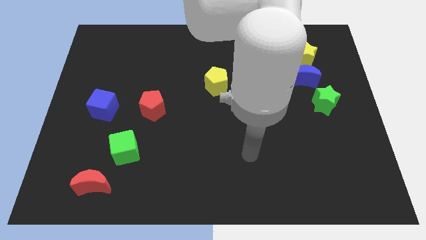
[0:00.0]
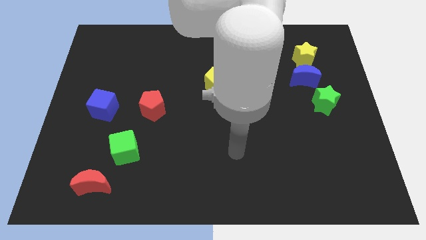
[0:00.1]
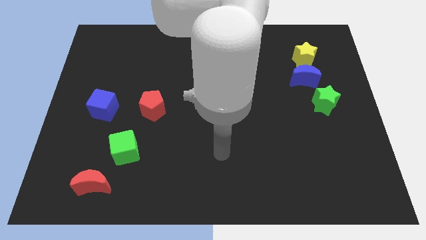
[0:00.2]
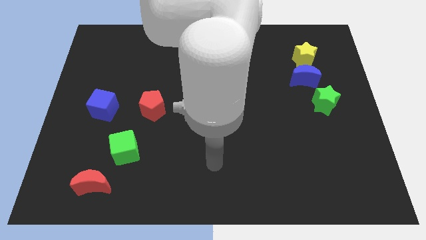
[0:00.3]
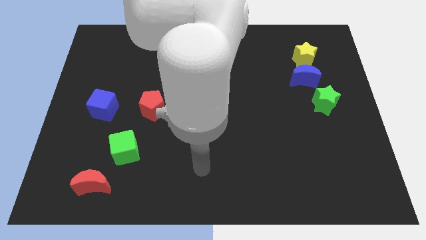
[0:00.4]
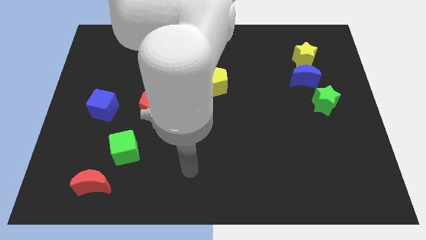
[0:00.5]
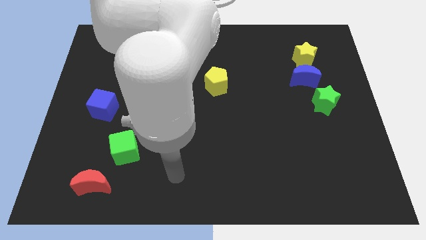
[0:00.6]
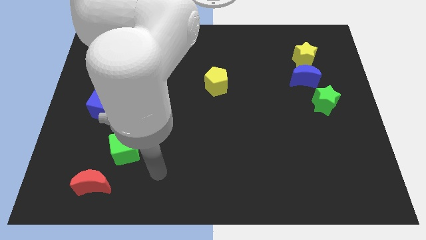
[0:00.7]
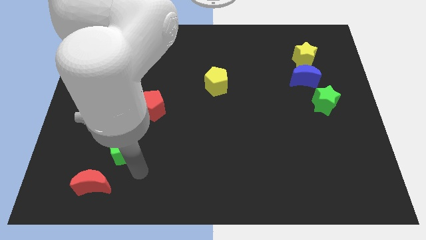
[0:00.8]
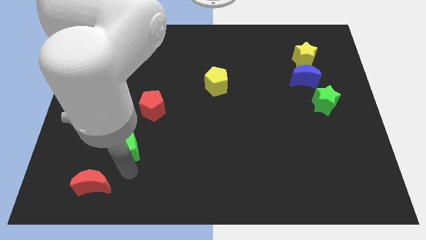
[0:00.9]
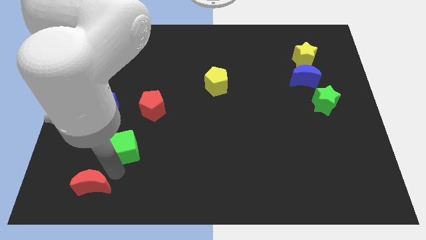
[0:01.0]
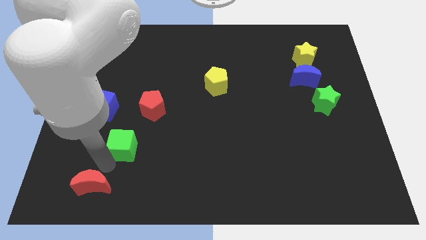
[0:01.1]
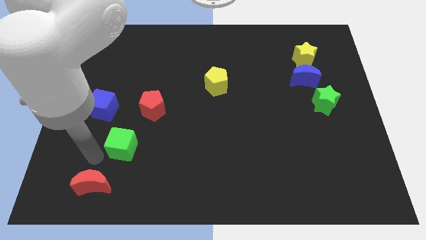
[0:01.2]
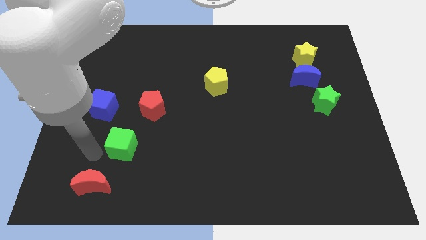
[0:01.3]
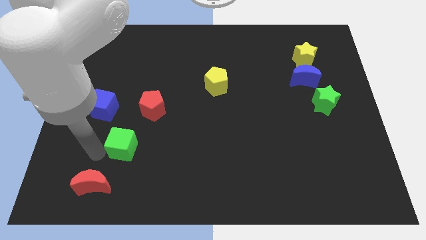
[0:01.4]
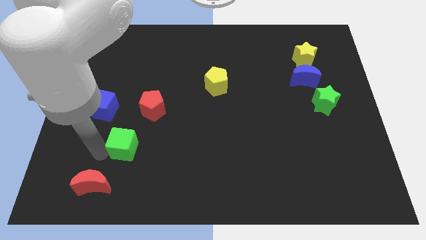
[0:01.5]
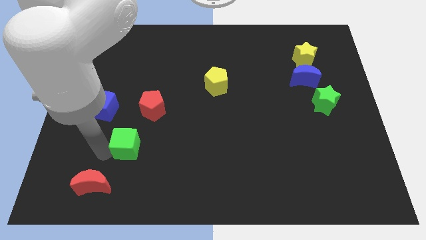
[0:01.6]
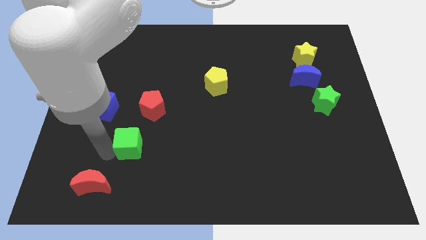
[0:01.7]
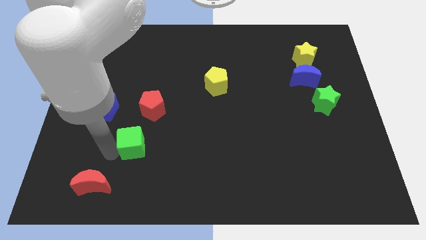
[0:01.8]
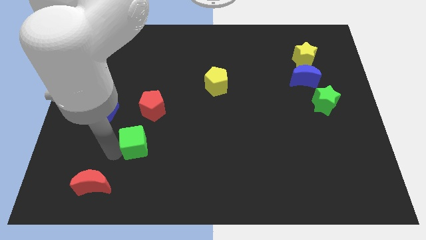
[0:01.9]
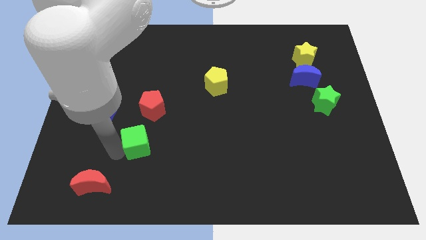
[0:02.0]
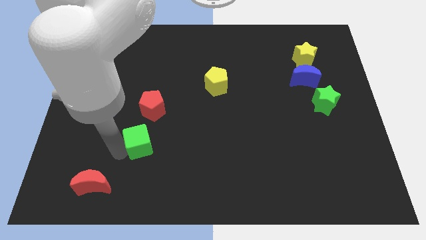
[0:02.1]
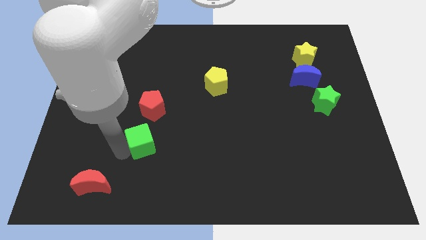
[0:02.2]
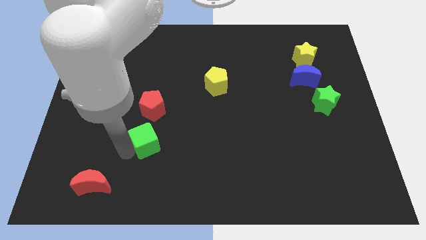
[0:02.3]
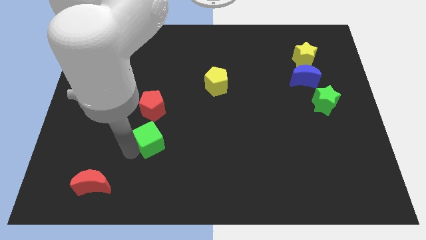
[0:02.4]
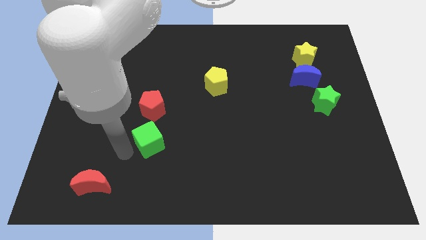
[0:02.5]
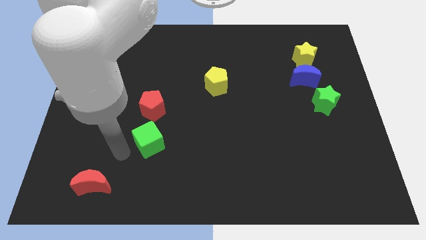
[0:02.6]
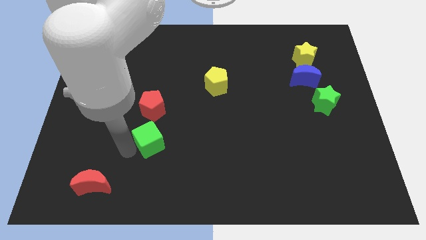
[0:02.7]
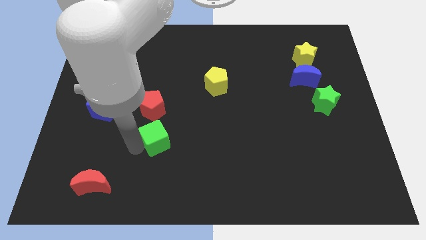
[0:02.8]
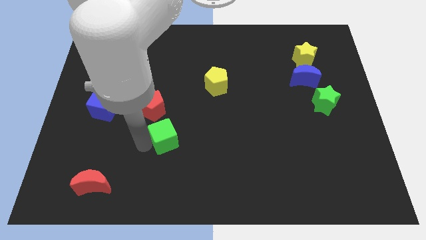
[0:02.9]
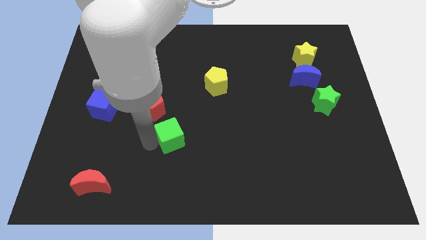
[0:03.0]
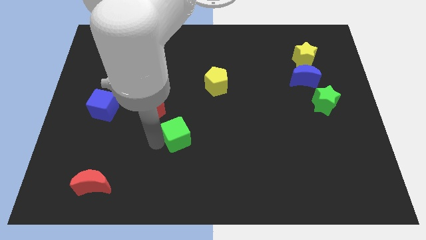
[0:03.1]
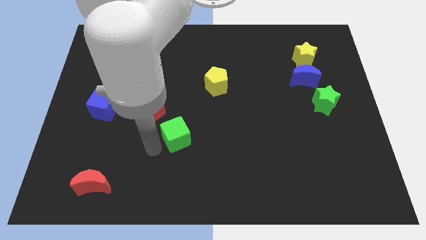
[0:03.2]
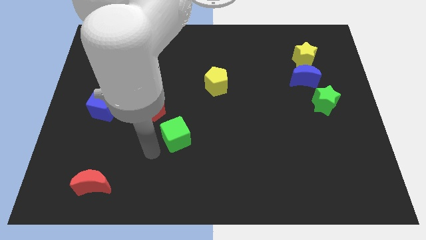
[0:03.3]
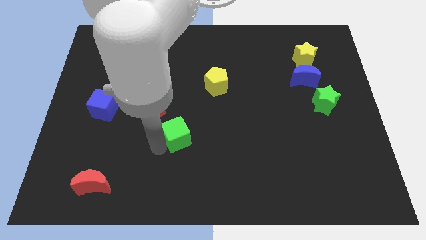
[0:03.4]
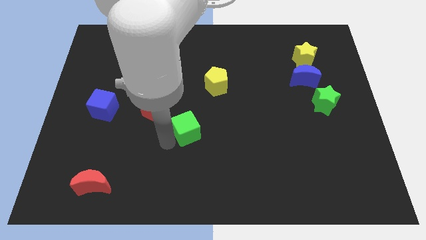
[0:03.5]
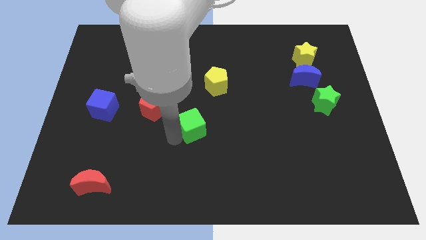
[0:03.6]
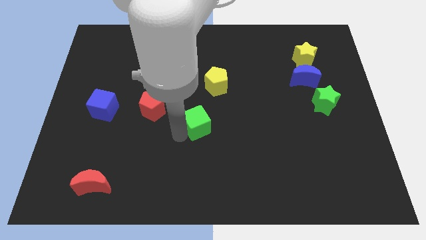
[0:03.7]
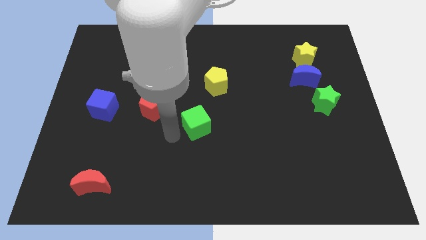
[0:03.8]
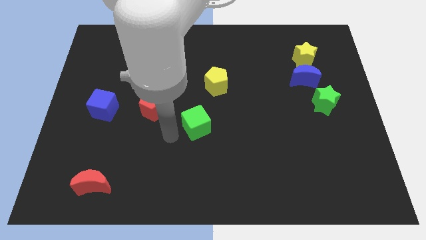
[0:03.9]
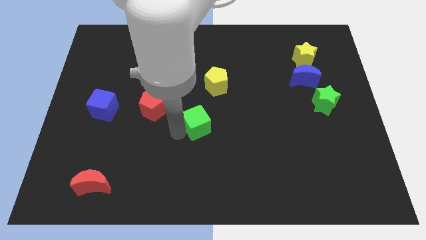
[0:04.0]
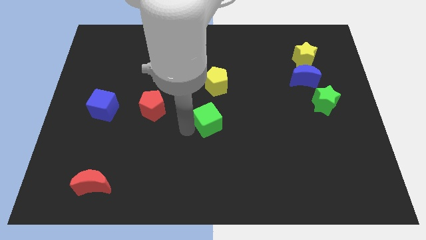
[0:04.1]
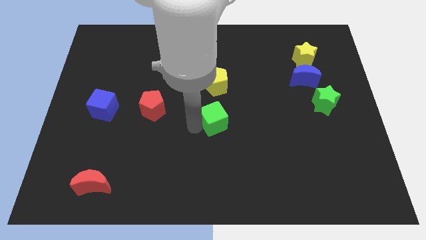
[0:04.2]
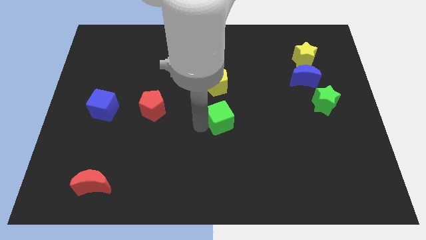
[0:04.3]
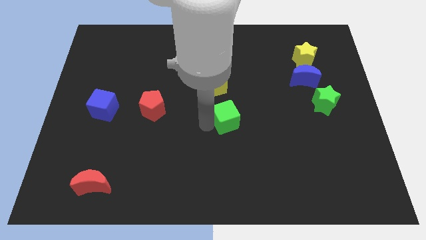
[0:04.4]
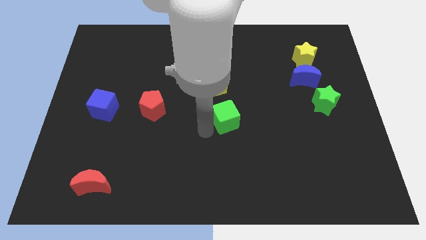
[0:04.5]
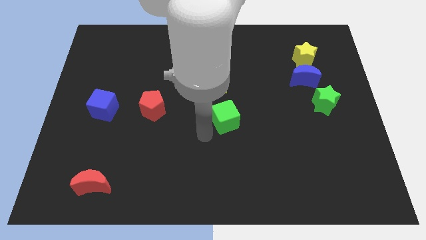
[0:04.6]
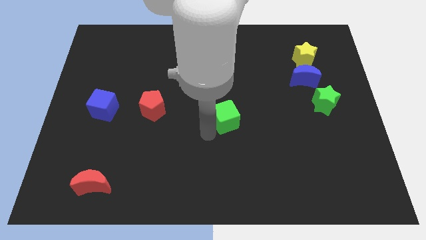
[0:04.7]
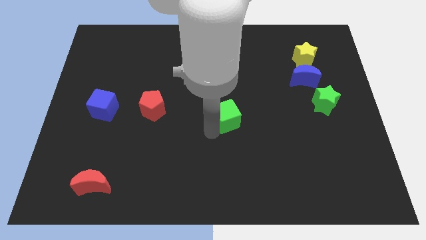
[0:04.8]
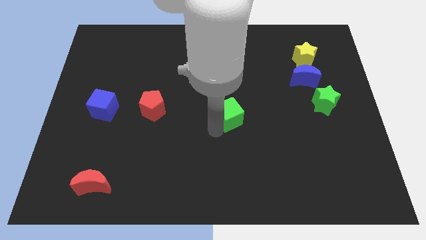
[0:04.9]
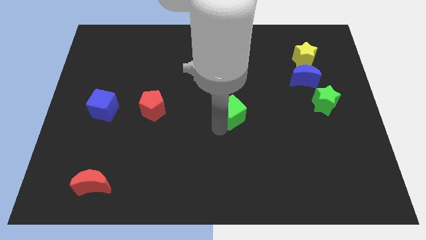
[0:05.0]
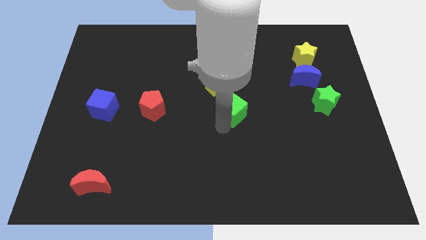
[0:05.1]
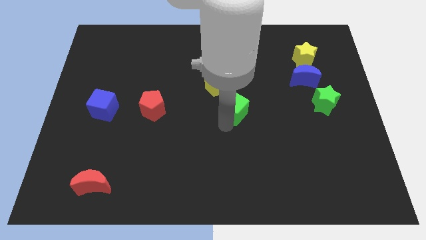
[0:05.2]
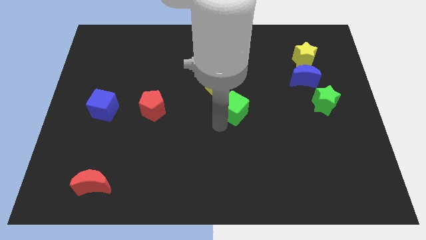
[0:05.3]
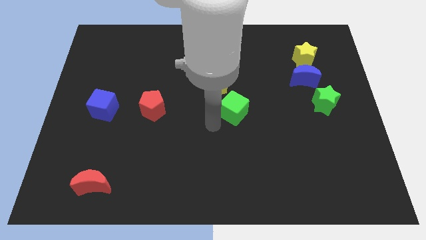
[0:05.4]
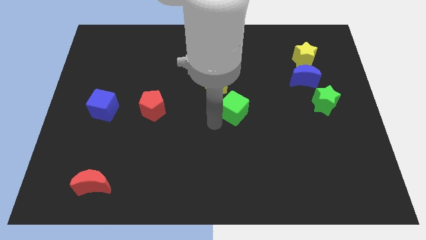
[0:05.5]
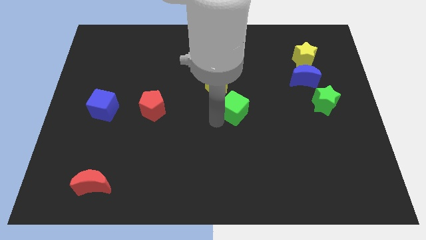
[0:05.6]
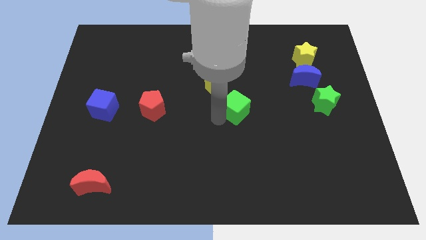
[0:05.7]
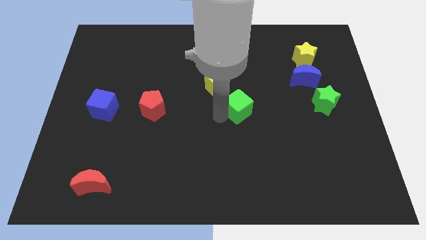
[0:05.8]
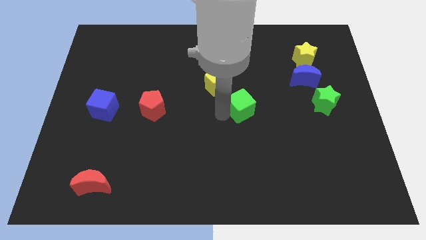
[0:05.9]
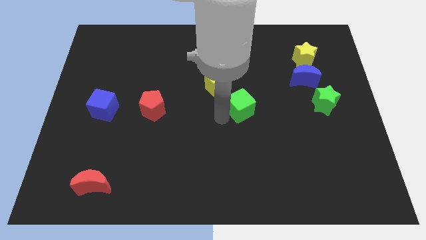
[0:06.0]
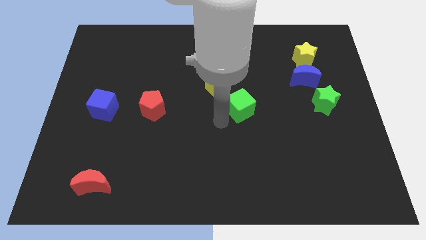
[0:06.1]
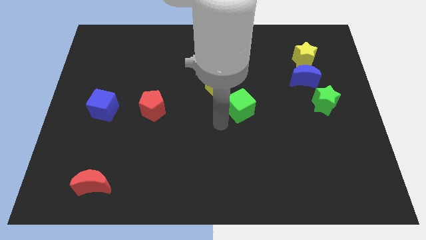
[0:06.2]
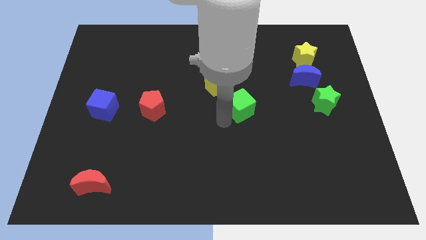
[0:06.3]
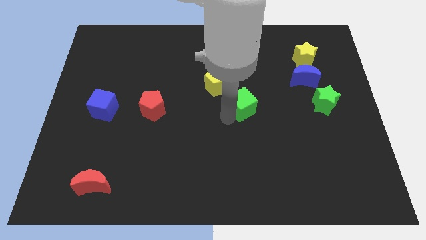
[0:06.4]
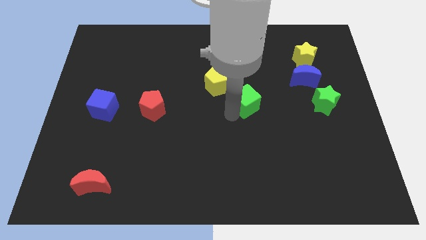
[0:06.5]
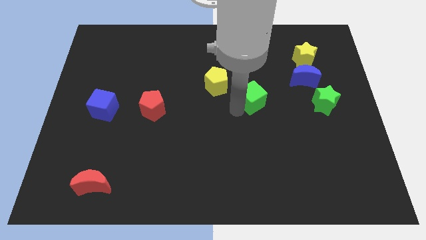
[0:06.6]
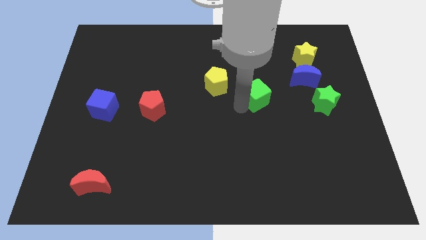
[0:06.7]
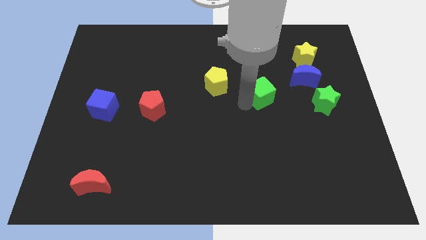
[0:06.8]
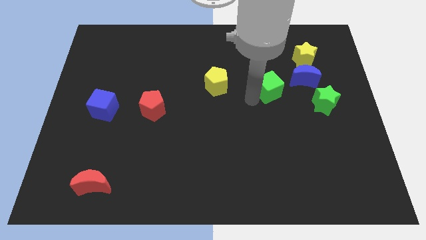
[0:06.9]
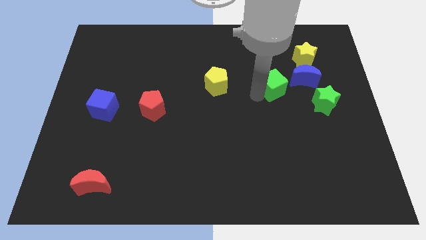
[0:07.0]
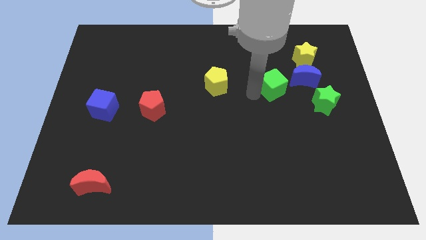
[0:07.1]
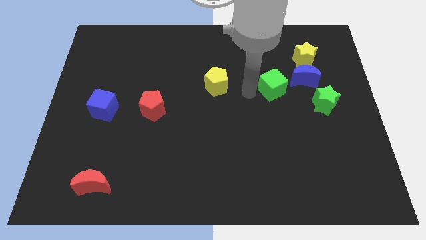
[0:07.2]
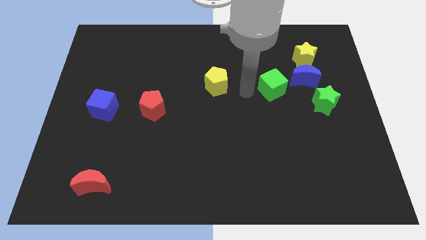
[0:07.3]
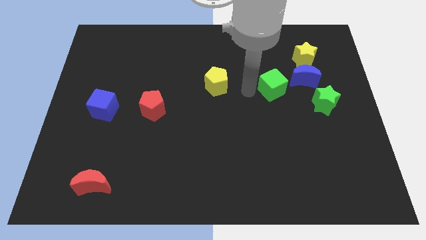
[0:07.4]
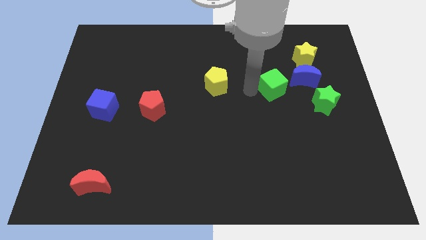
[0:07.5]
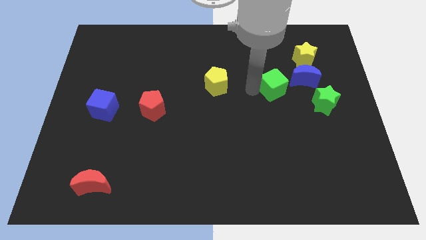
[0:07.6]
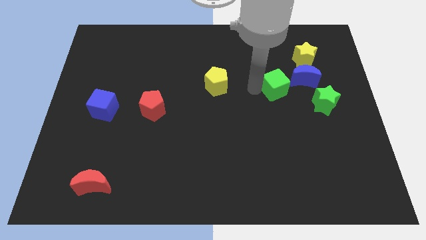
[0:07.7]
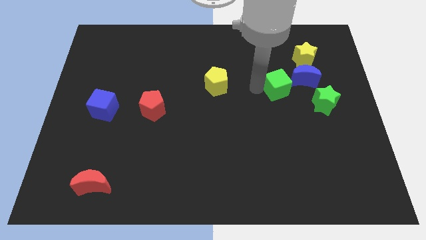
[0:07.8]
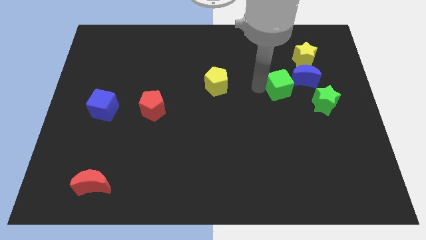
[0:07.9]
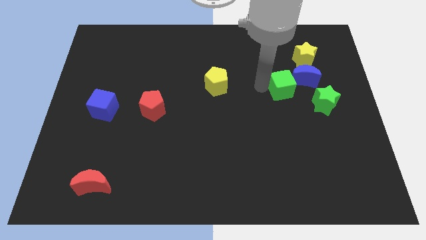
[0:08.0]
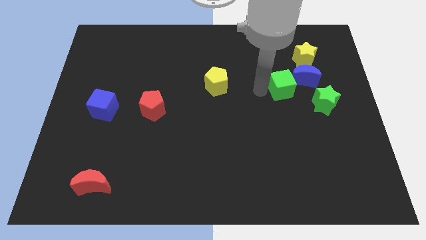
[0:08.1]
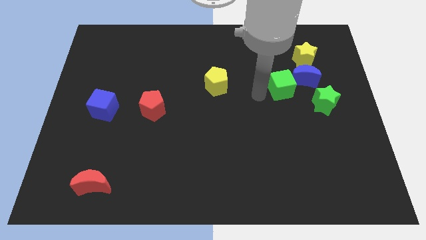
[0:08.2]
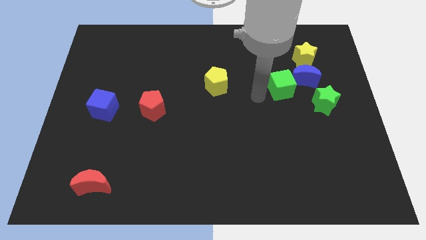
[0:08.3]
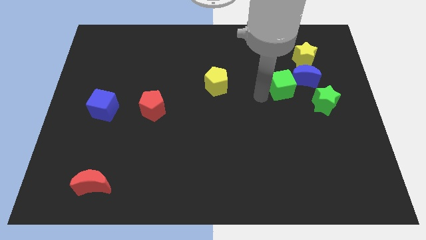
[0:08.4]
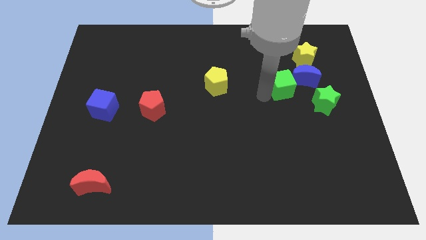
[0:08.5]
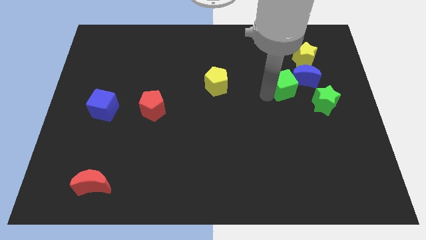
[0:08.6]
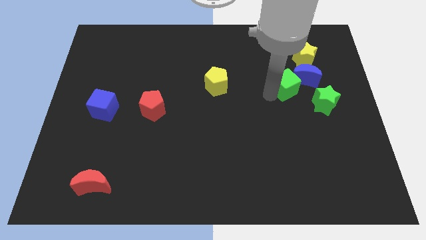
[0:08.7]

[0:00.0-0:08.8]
move the green cube towards the blue moon
